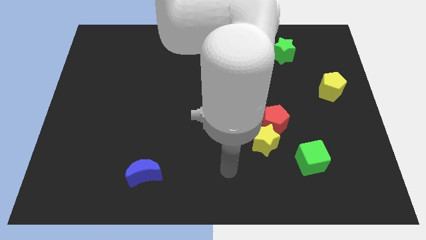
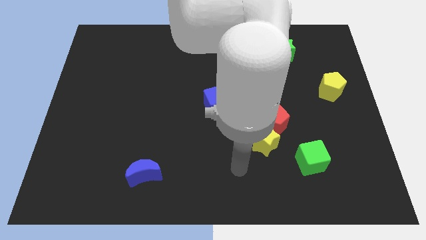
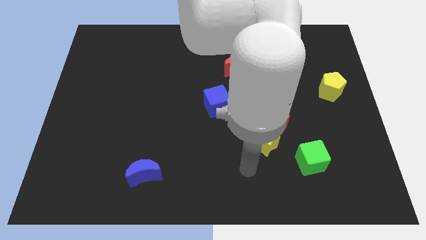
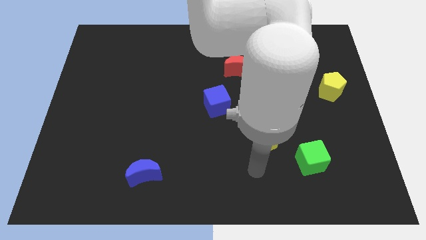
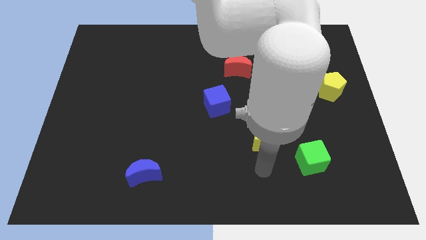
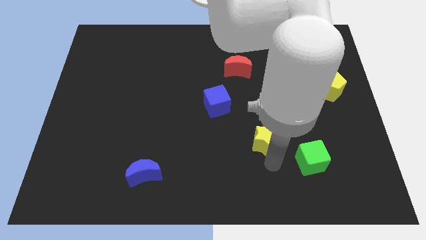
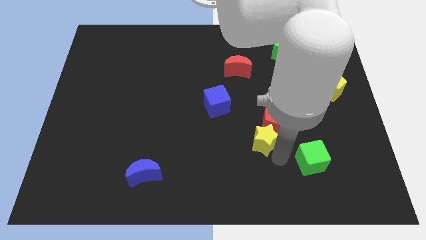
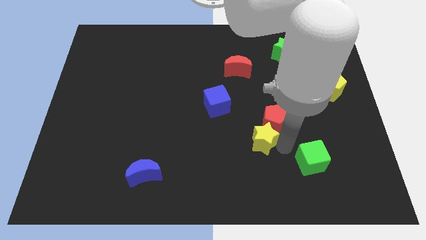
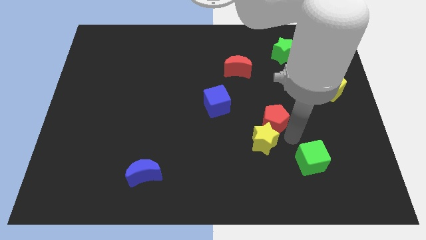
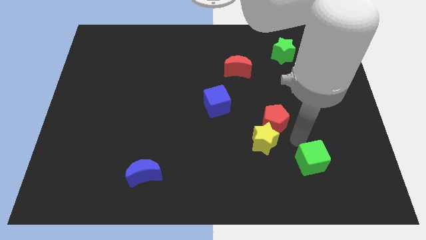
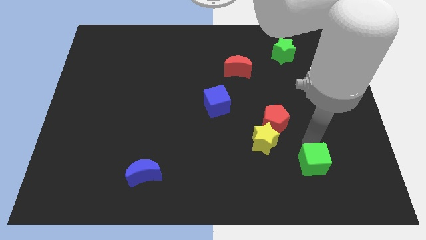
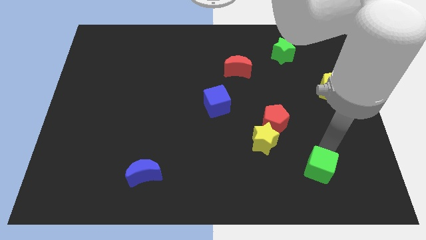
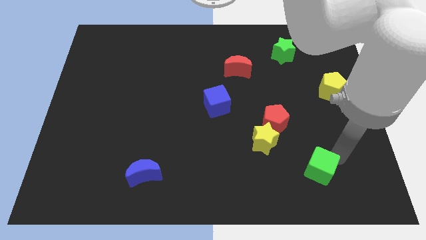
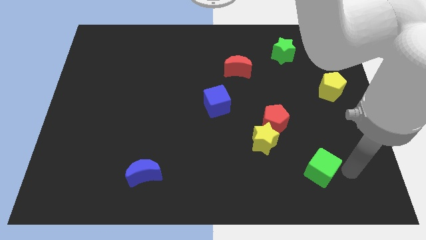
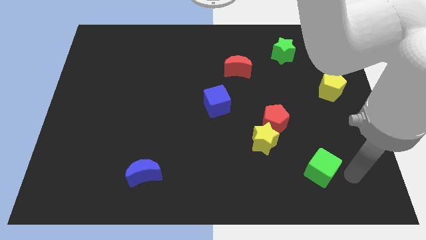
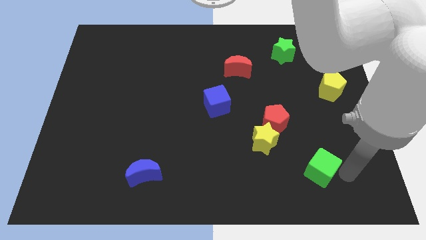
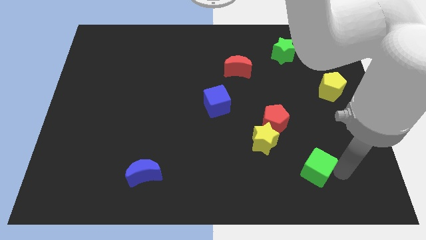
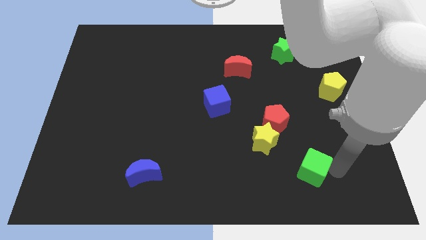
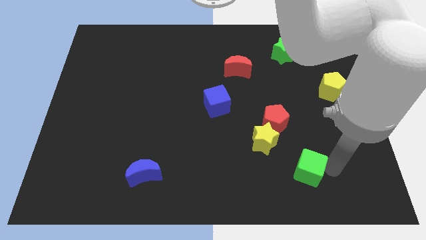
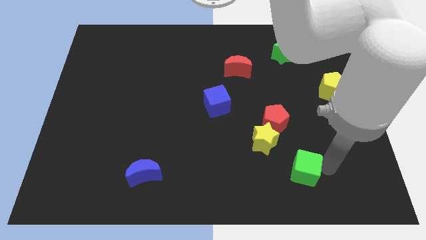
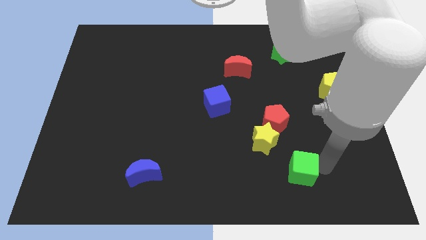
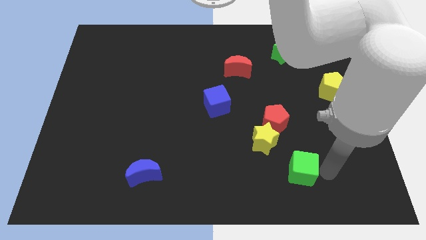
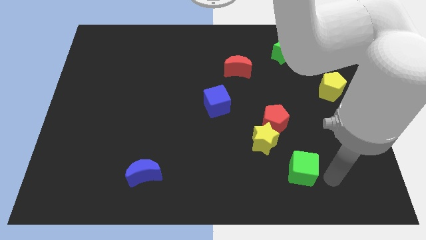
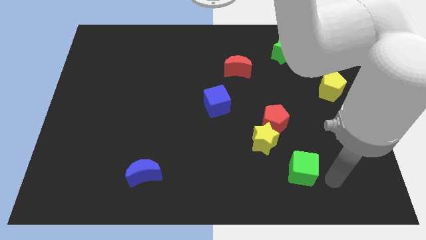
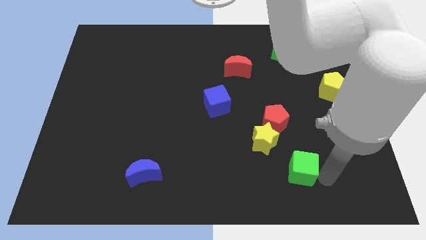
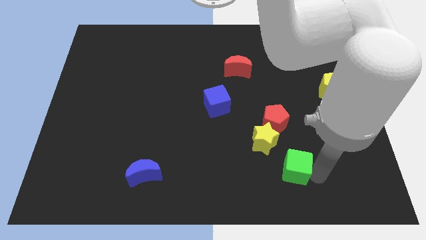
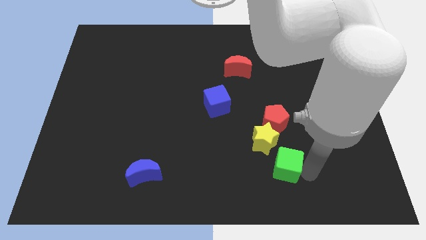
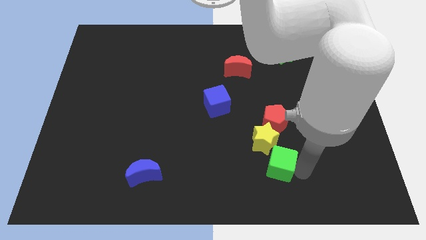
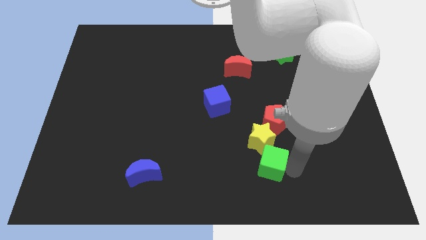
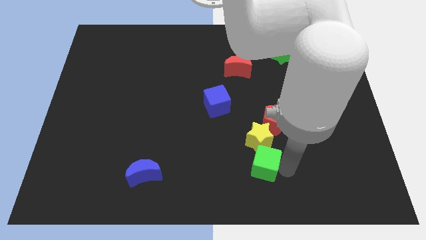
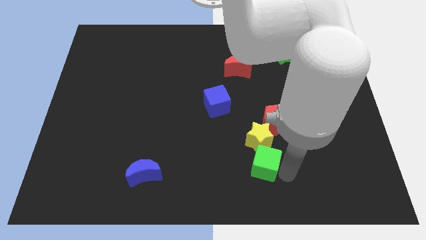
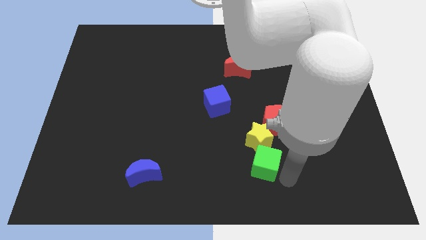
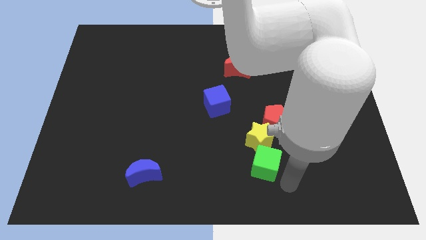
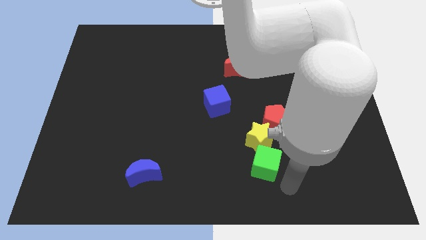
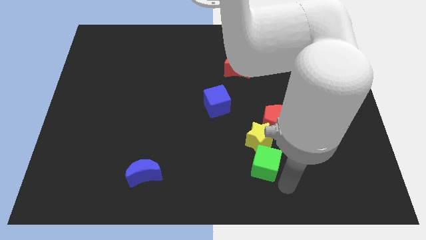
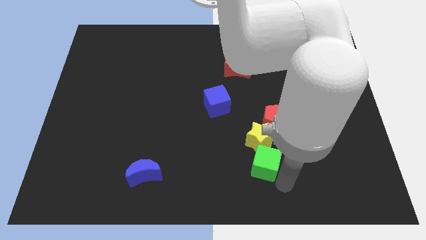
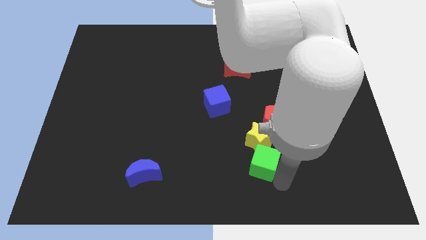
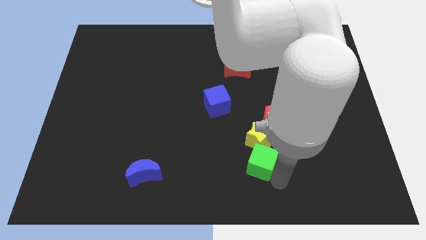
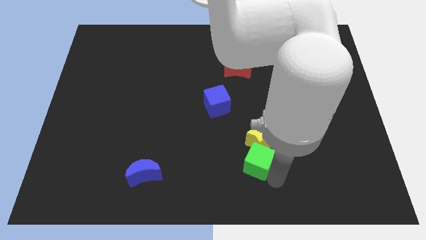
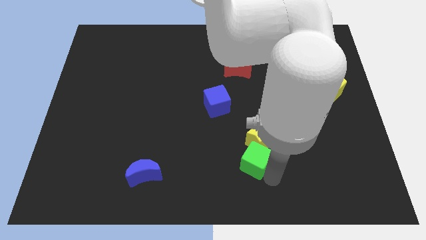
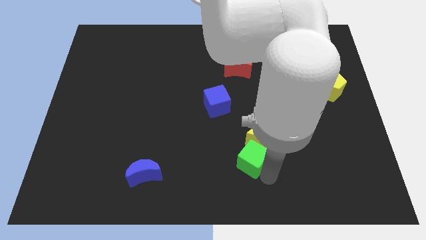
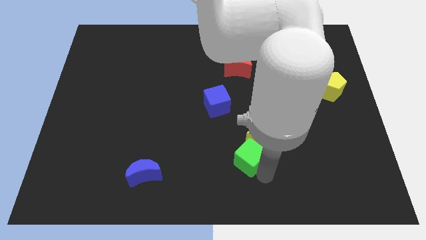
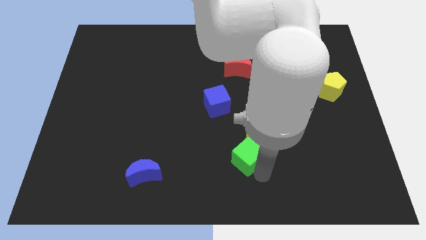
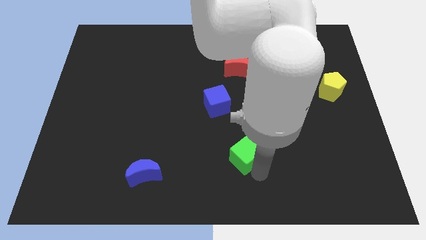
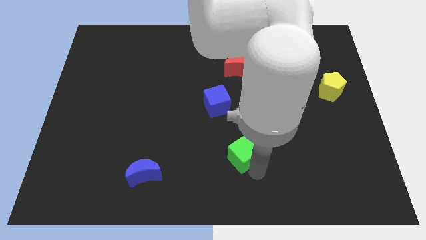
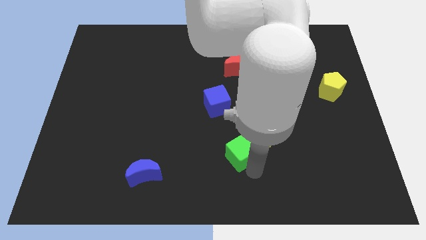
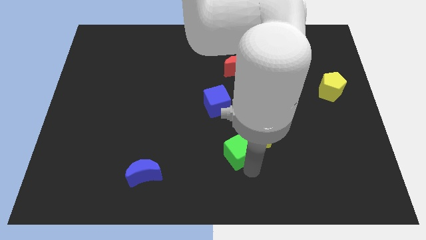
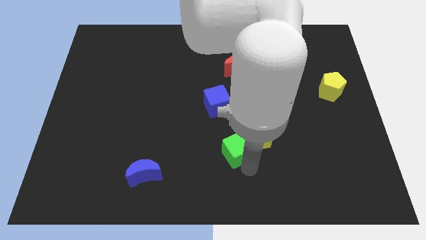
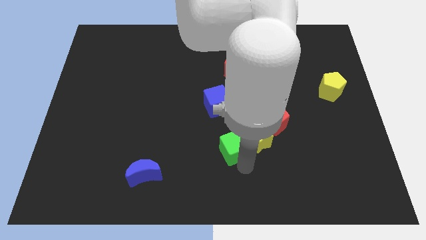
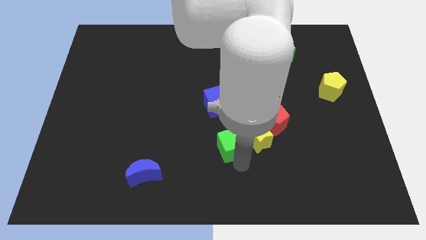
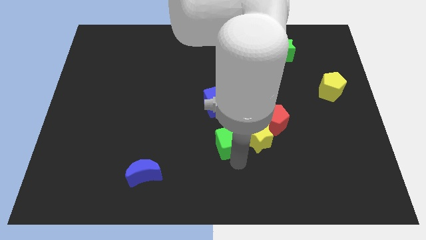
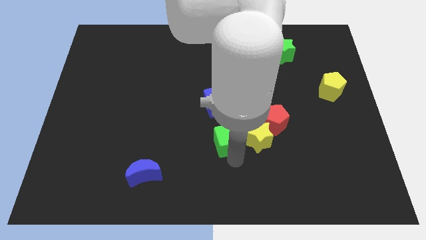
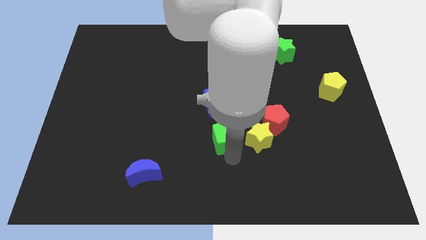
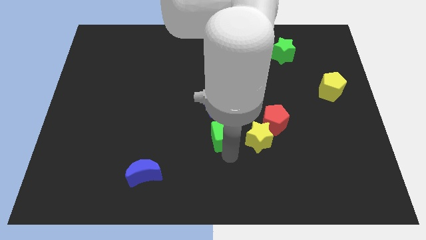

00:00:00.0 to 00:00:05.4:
move the green cube diagonally up and to the left of the yellow star

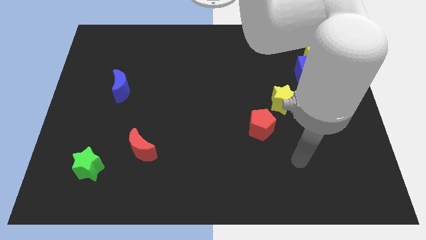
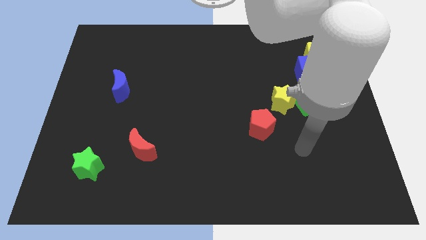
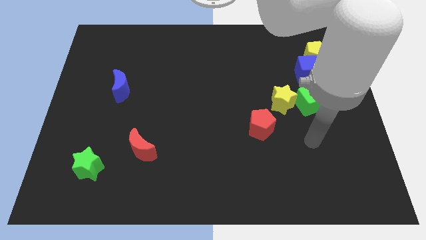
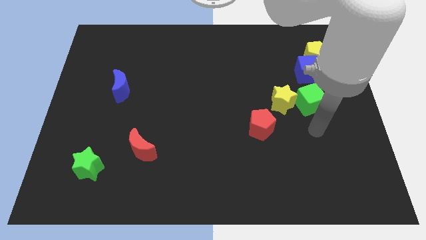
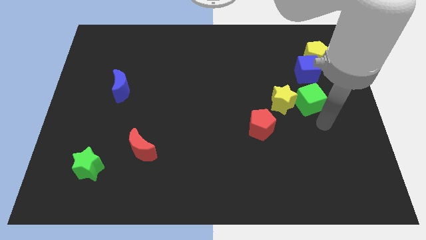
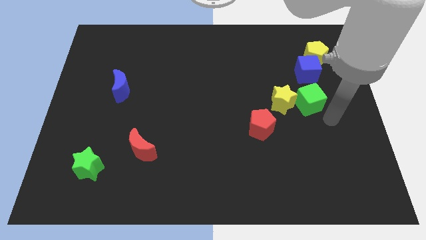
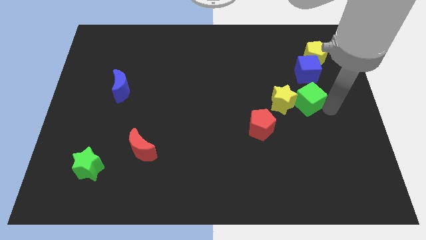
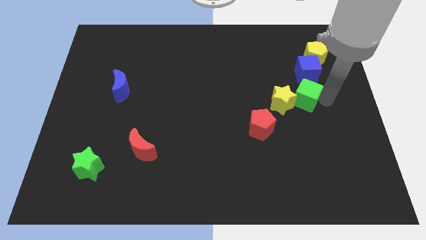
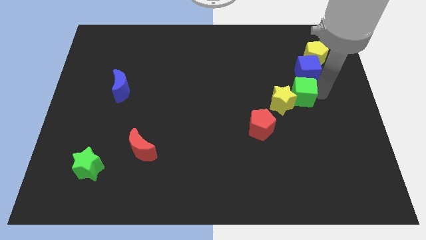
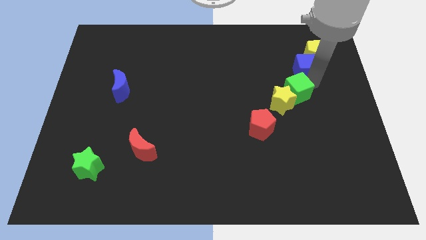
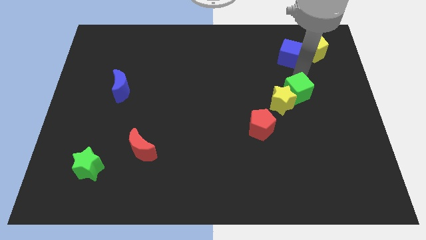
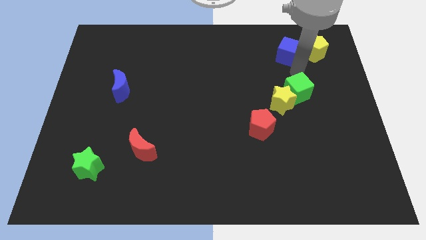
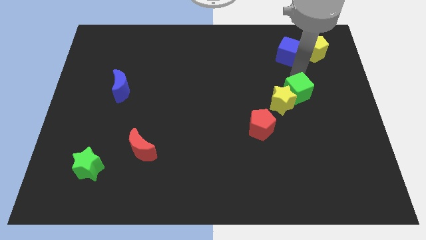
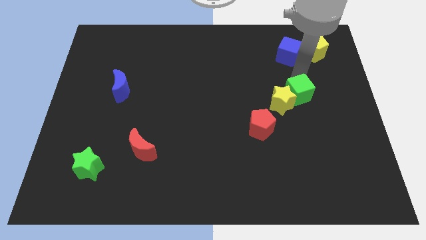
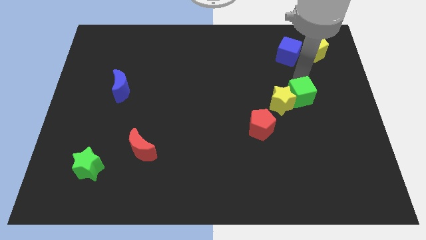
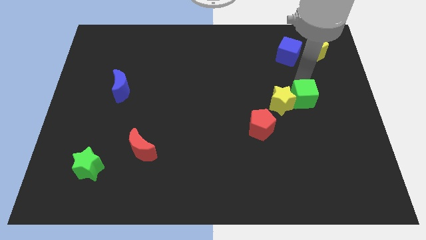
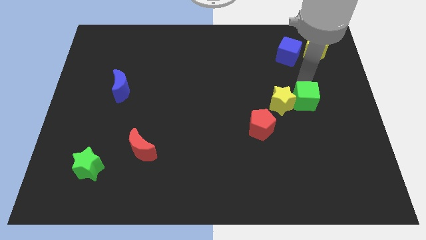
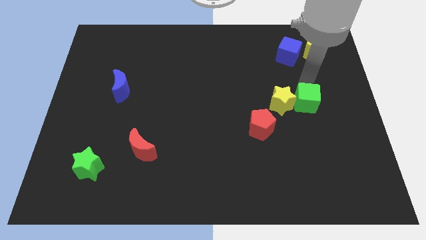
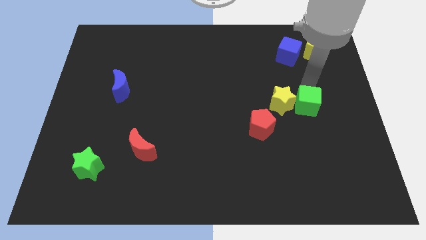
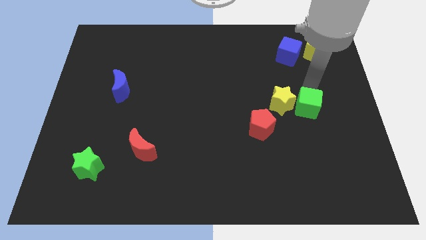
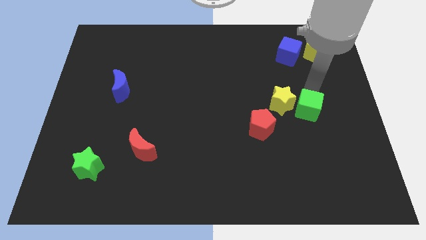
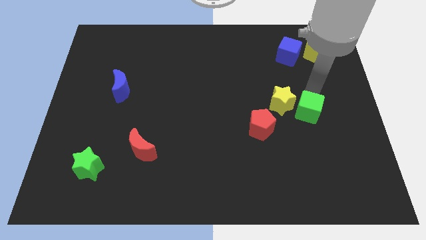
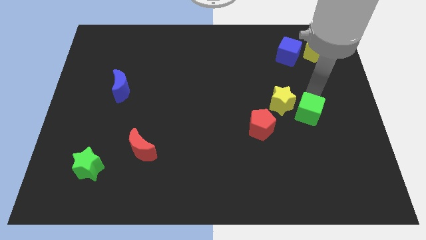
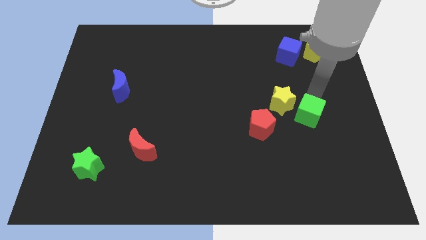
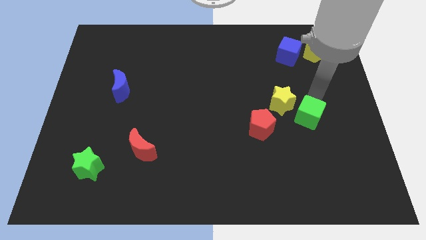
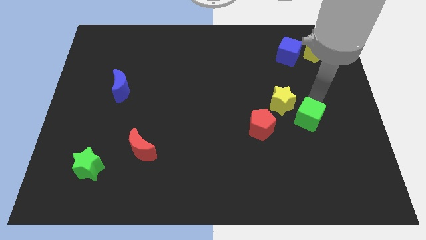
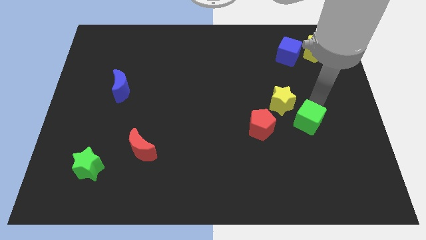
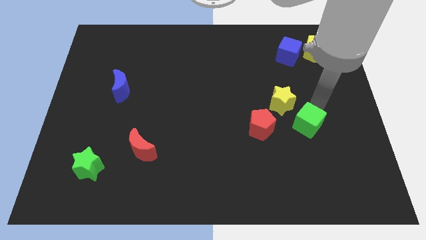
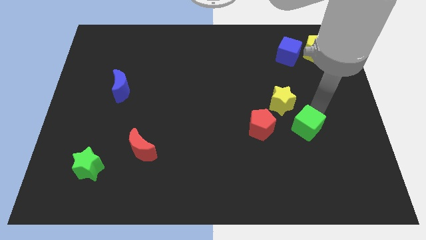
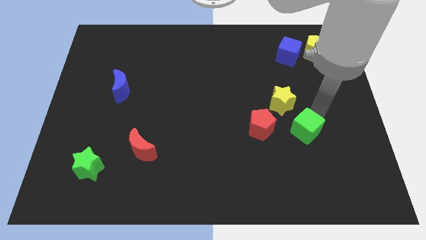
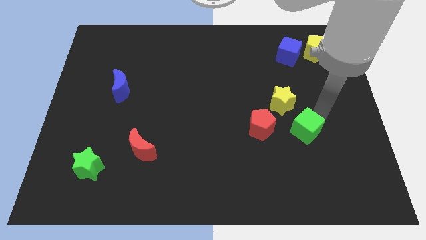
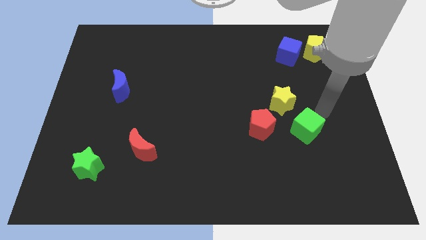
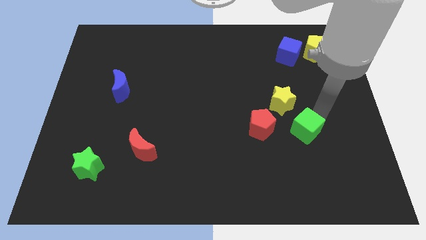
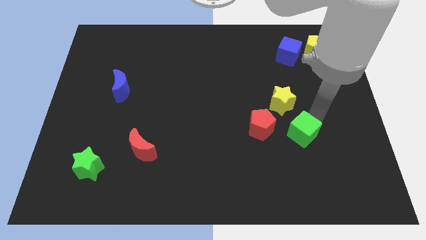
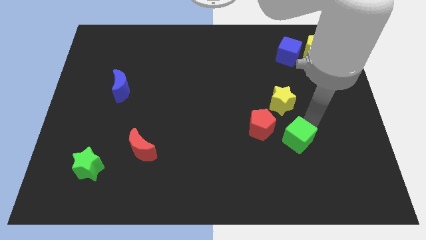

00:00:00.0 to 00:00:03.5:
slide the green cube diagonally down and to the right of the red pentagon
